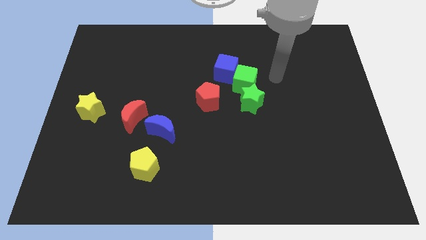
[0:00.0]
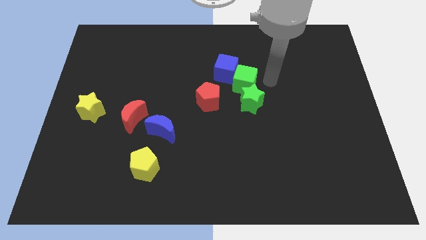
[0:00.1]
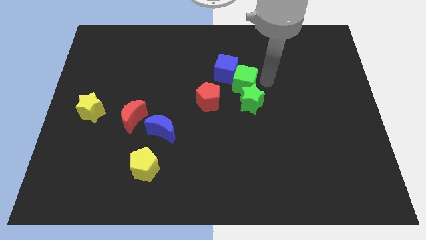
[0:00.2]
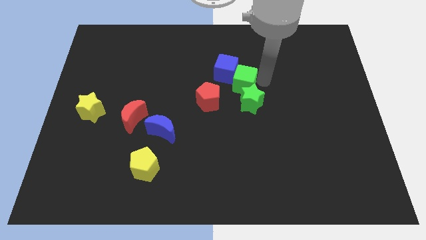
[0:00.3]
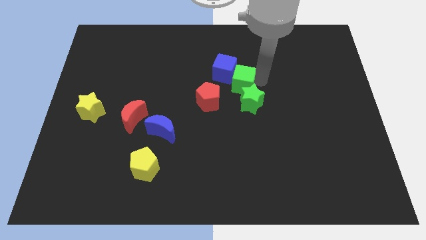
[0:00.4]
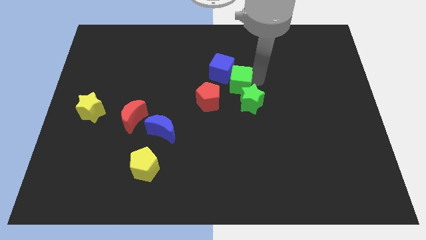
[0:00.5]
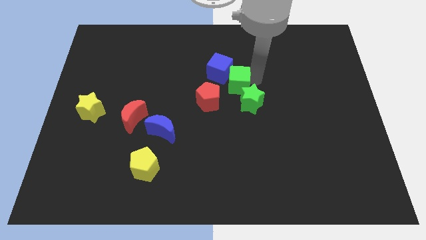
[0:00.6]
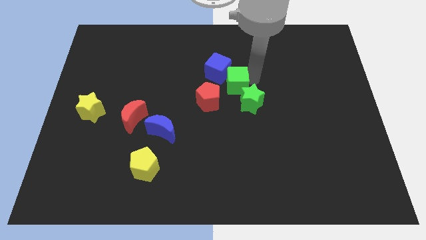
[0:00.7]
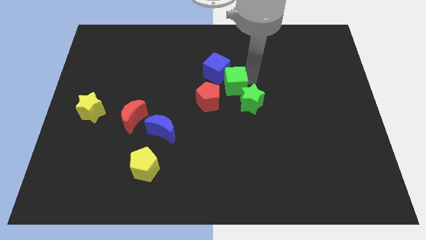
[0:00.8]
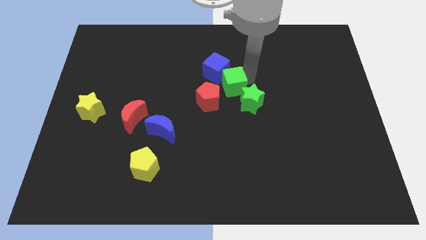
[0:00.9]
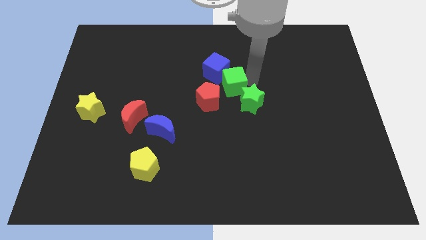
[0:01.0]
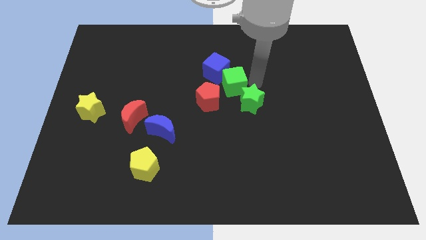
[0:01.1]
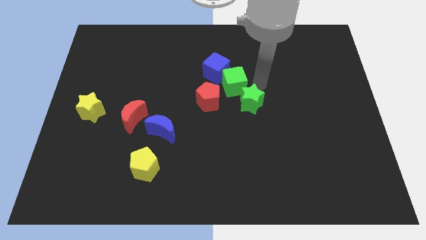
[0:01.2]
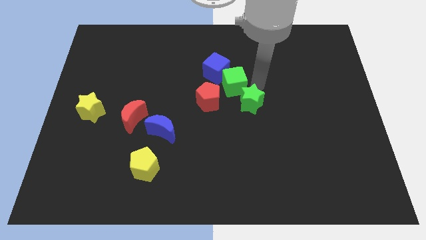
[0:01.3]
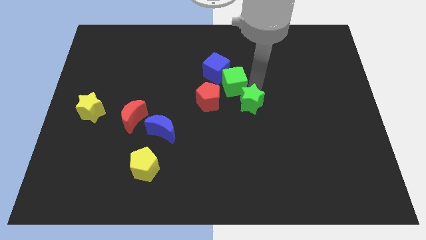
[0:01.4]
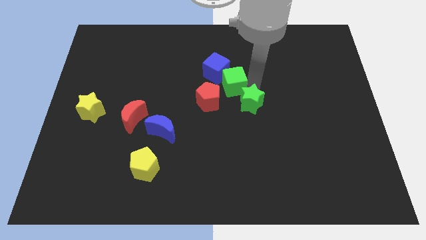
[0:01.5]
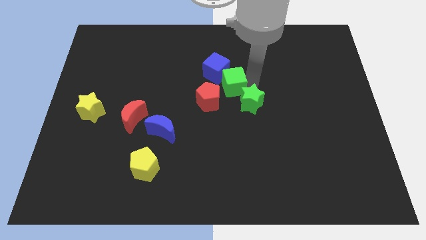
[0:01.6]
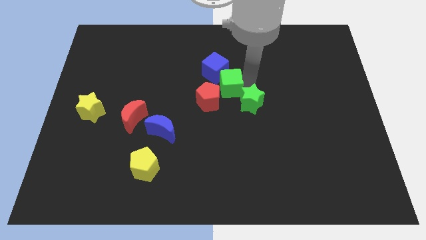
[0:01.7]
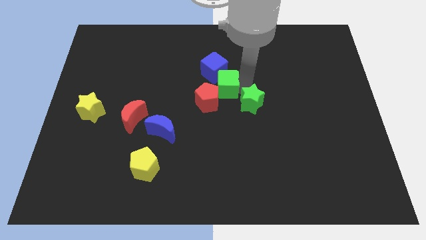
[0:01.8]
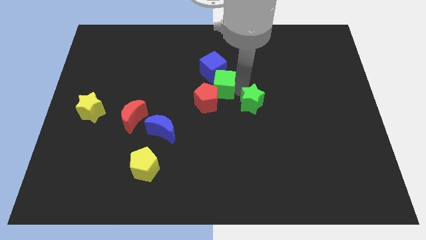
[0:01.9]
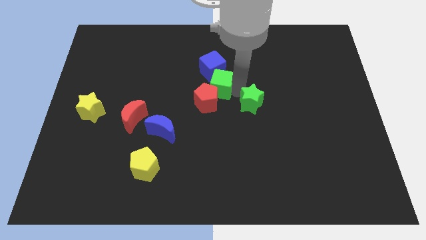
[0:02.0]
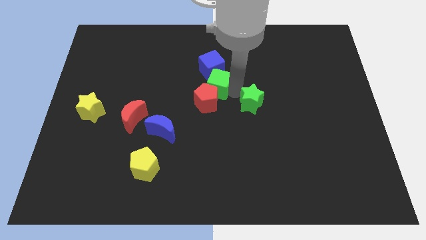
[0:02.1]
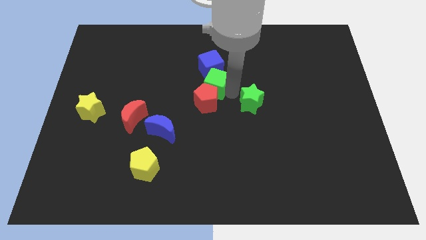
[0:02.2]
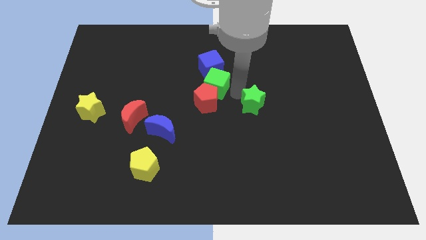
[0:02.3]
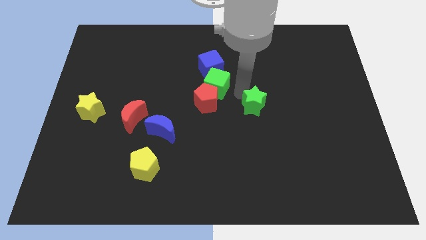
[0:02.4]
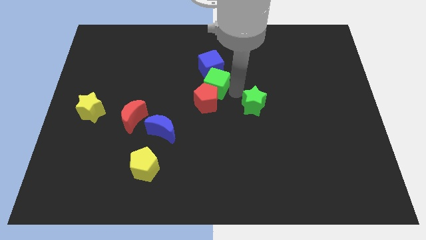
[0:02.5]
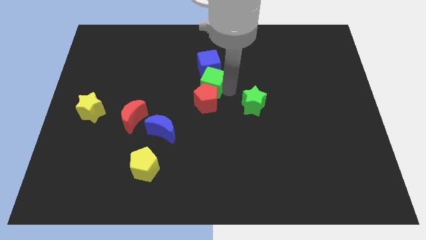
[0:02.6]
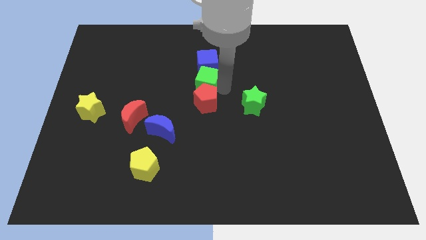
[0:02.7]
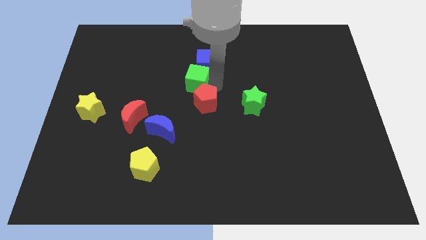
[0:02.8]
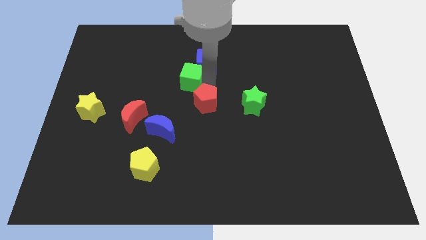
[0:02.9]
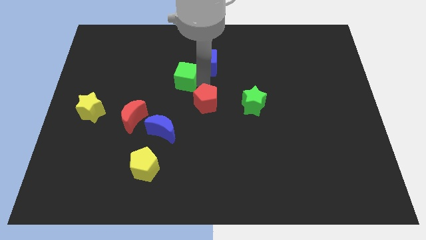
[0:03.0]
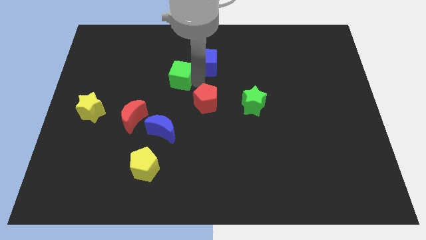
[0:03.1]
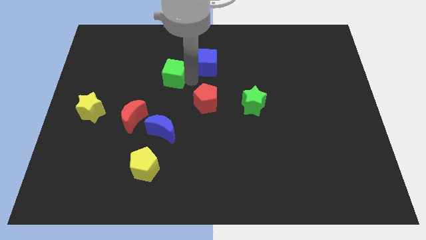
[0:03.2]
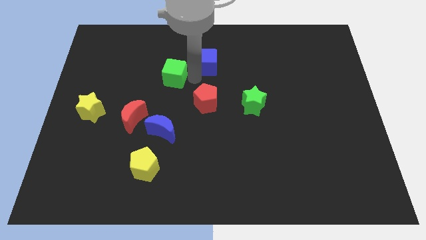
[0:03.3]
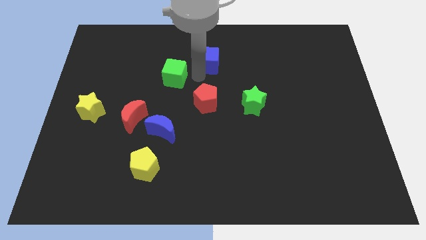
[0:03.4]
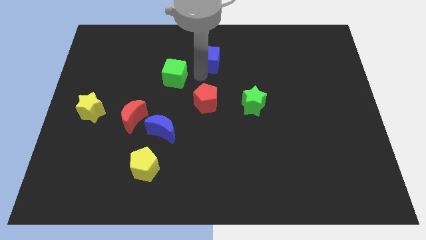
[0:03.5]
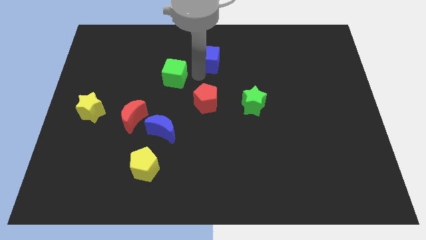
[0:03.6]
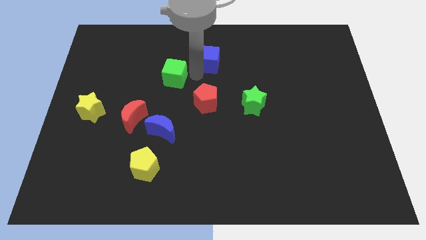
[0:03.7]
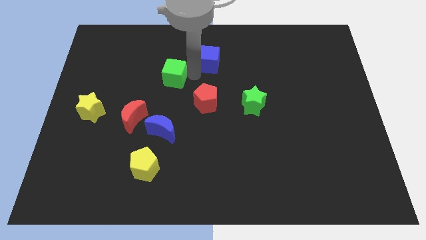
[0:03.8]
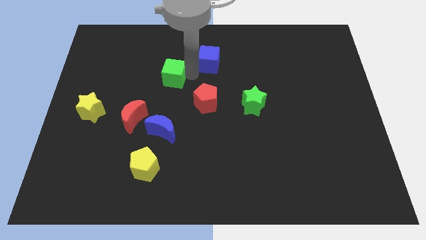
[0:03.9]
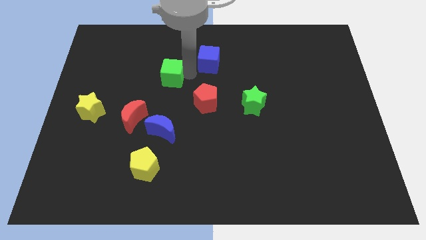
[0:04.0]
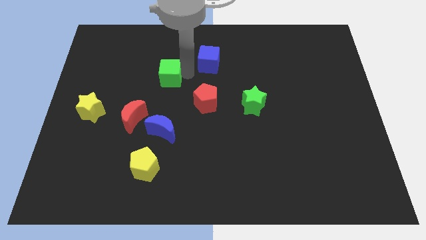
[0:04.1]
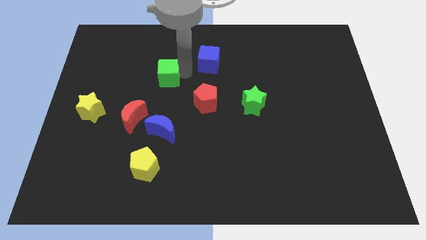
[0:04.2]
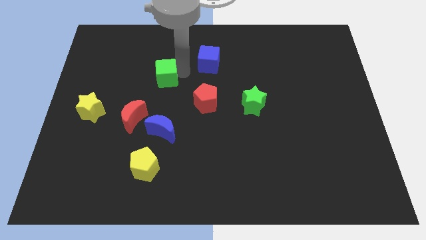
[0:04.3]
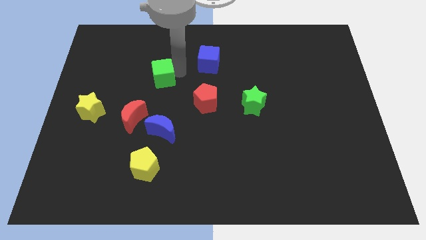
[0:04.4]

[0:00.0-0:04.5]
slide the green cube to the left

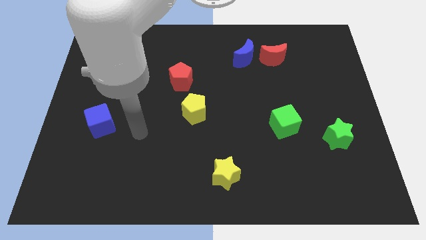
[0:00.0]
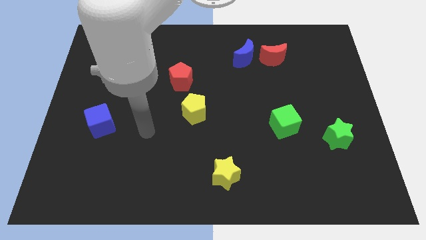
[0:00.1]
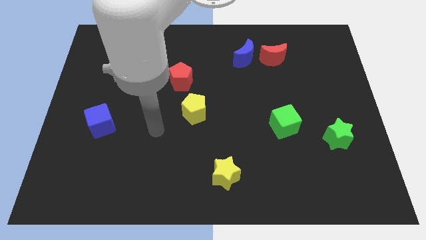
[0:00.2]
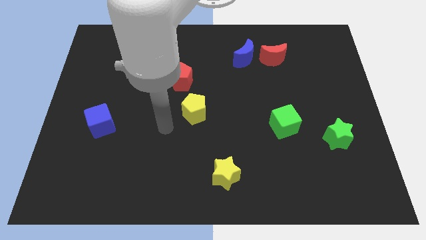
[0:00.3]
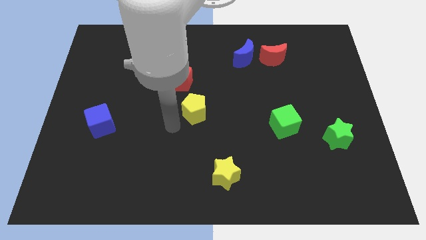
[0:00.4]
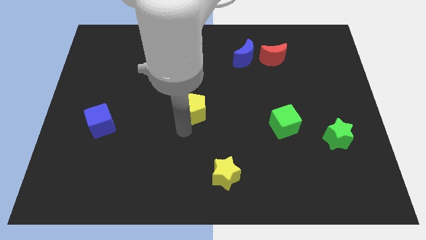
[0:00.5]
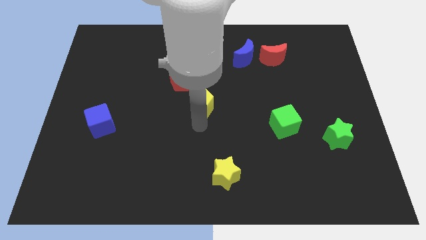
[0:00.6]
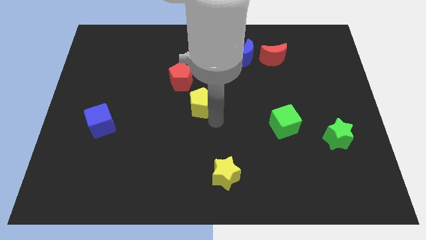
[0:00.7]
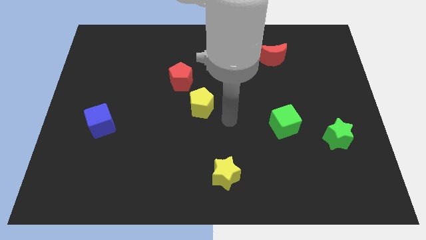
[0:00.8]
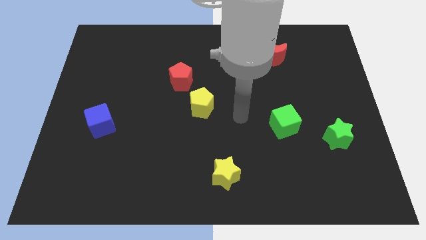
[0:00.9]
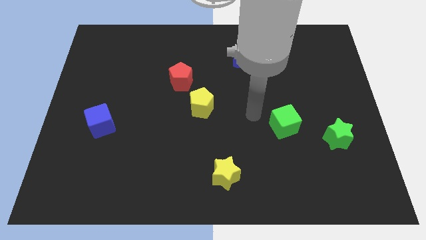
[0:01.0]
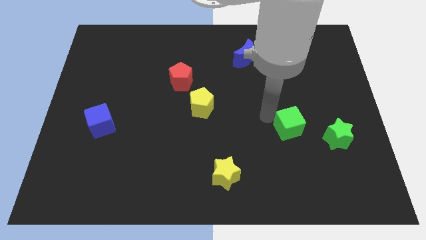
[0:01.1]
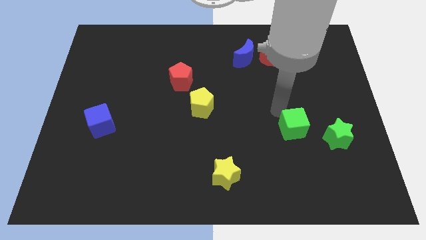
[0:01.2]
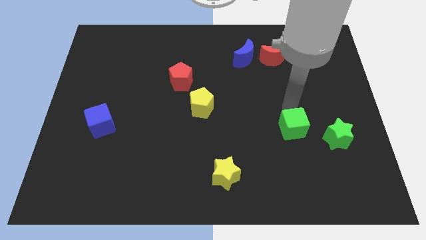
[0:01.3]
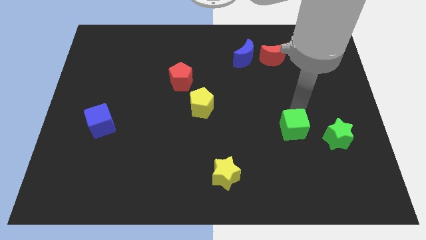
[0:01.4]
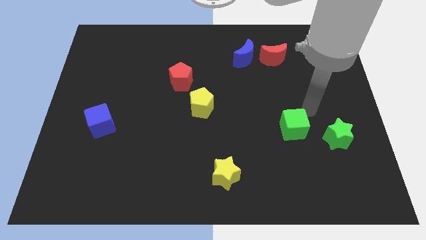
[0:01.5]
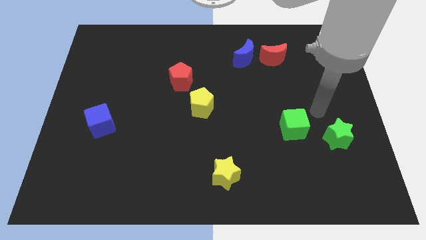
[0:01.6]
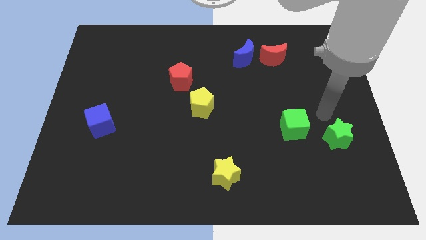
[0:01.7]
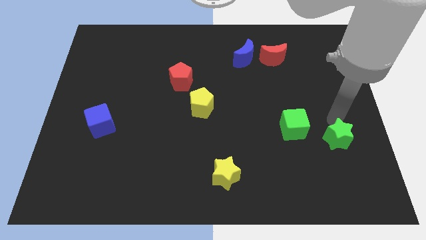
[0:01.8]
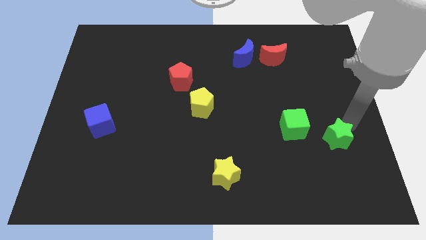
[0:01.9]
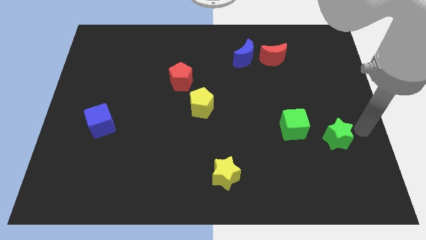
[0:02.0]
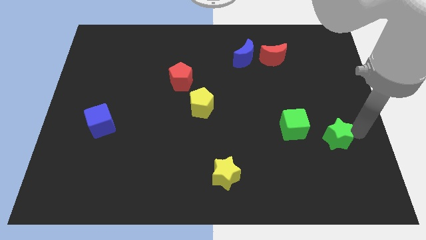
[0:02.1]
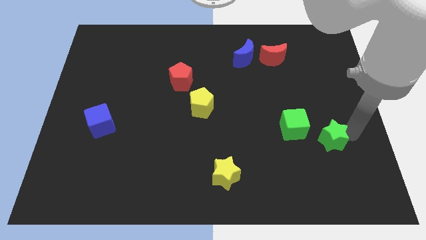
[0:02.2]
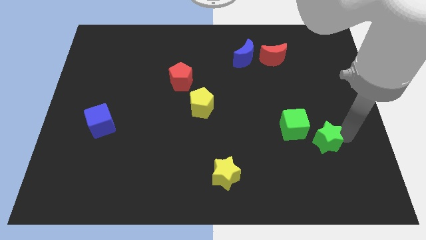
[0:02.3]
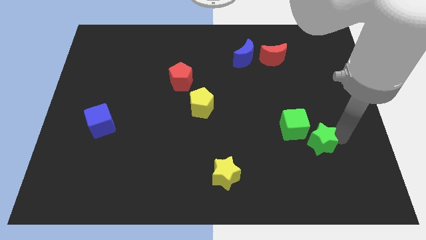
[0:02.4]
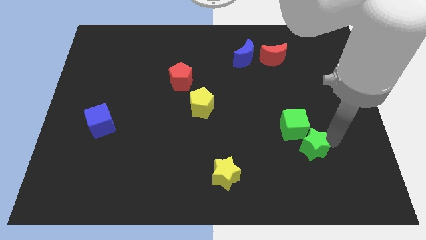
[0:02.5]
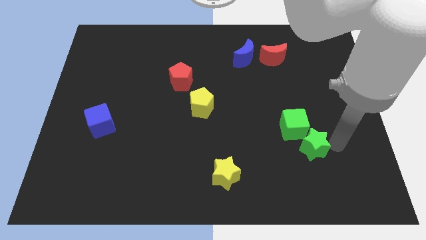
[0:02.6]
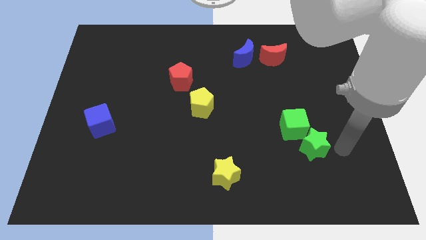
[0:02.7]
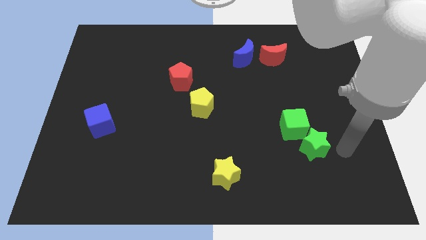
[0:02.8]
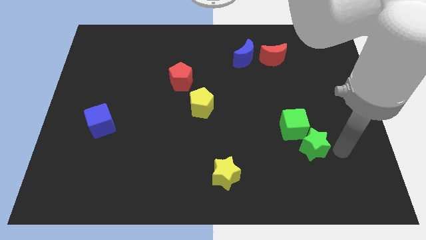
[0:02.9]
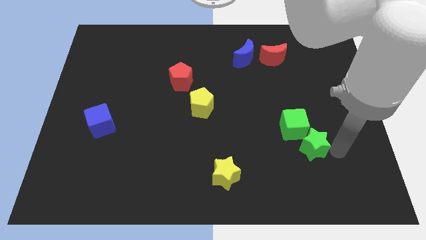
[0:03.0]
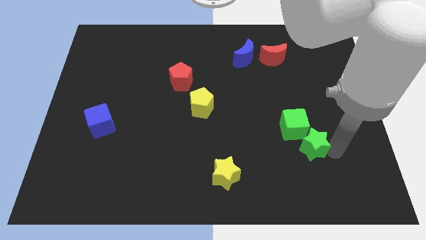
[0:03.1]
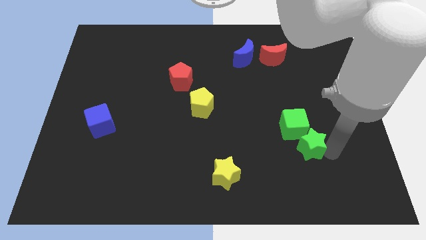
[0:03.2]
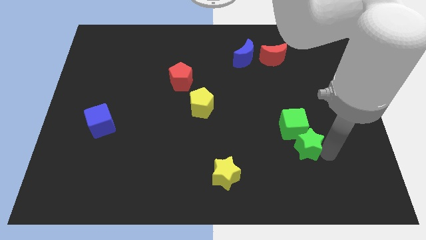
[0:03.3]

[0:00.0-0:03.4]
push the green star to the left somewhat
